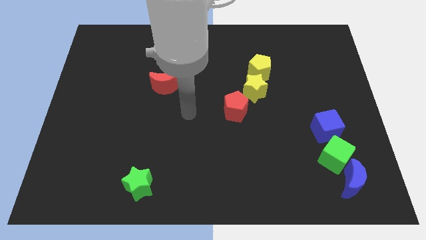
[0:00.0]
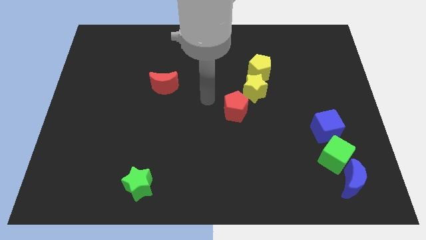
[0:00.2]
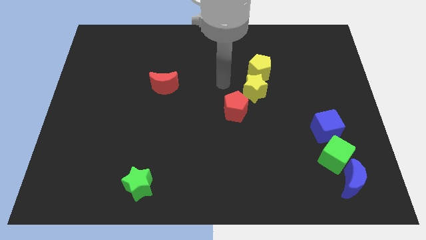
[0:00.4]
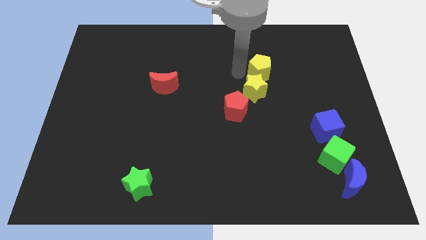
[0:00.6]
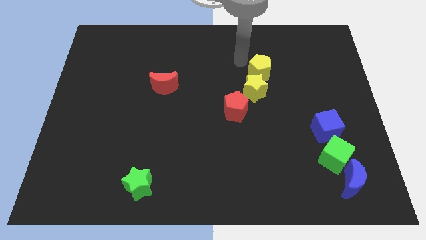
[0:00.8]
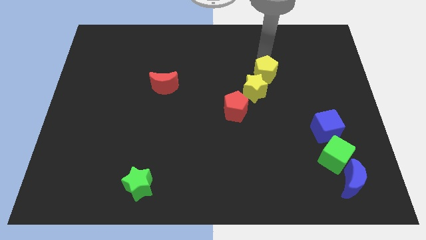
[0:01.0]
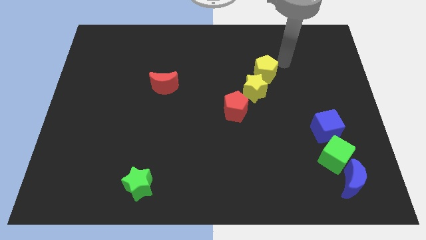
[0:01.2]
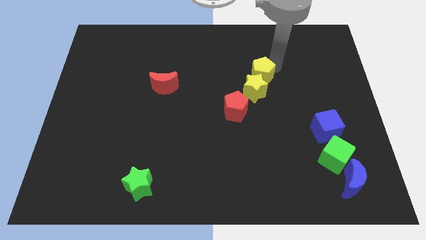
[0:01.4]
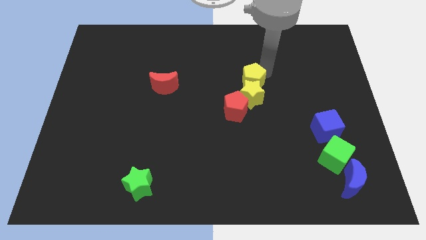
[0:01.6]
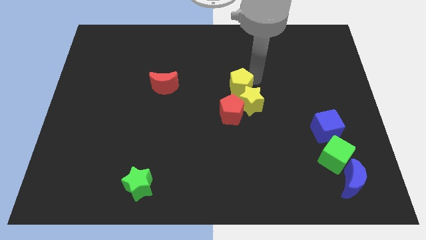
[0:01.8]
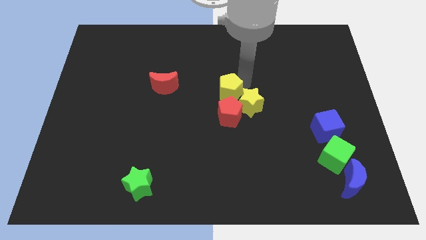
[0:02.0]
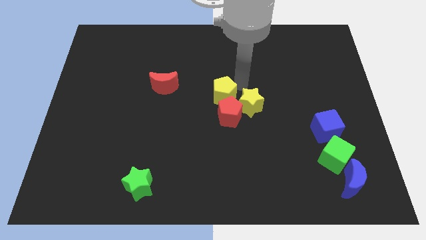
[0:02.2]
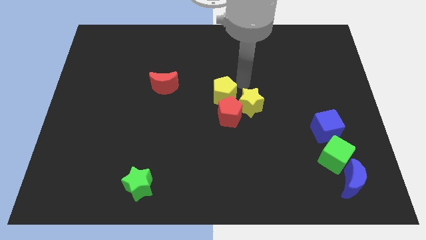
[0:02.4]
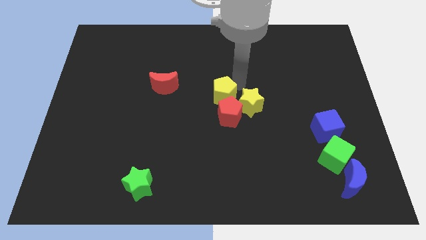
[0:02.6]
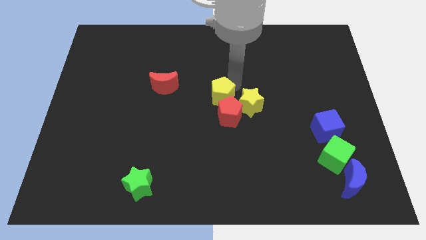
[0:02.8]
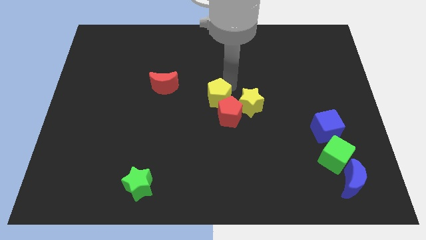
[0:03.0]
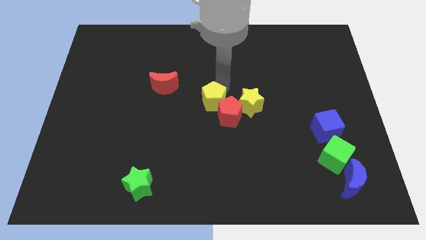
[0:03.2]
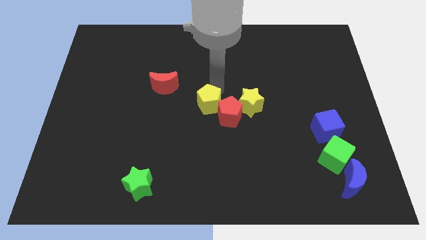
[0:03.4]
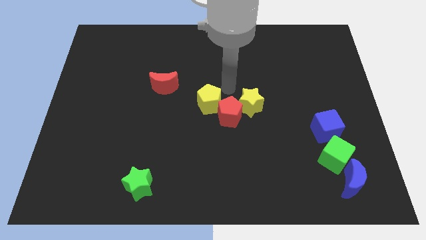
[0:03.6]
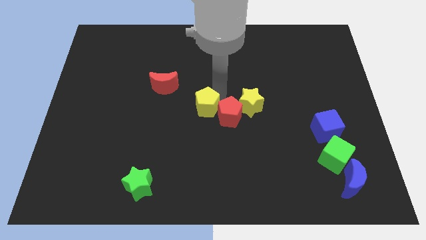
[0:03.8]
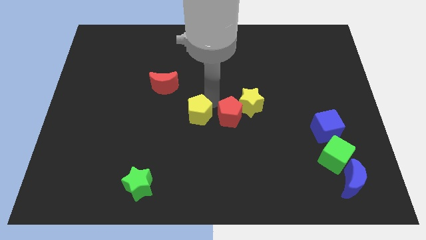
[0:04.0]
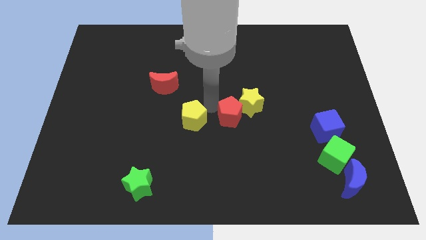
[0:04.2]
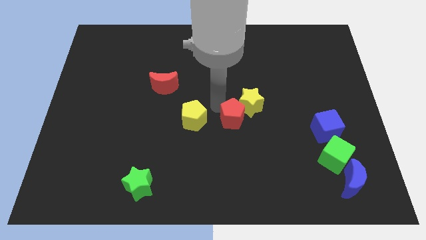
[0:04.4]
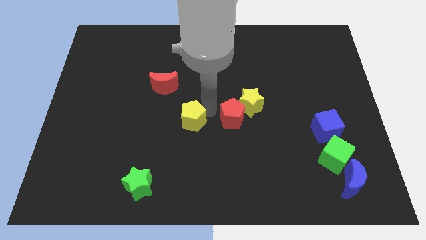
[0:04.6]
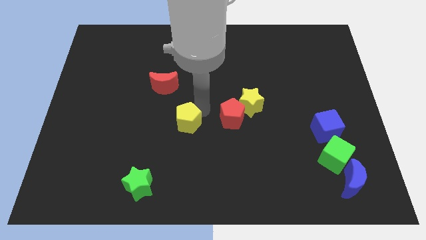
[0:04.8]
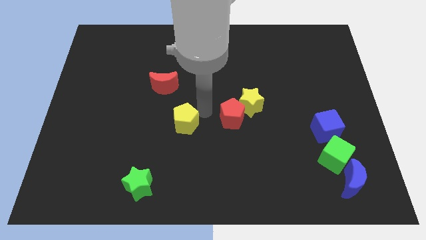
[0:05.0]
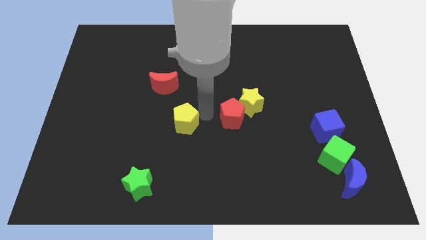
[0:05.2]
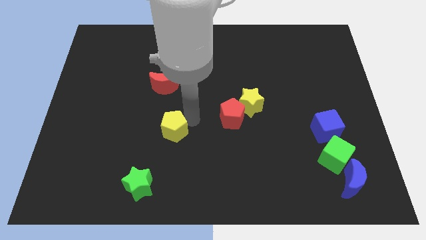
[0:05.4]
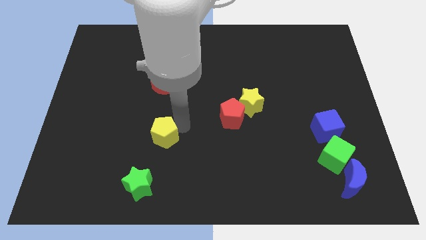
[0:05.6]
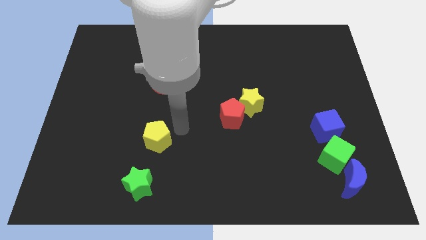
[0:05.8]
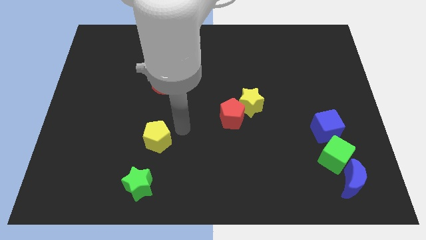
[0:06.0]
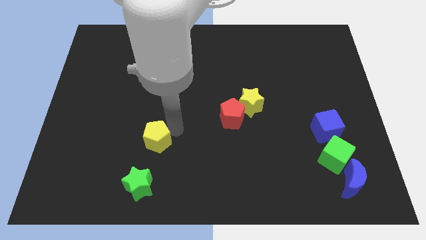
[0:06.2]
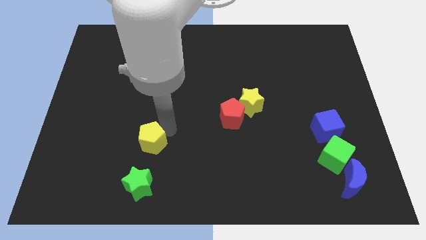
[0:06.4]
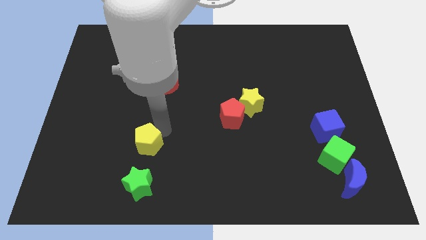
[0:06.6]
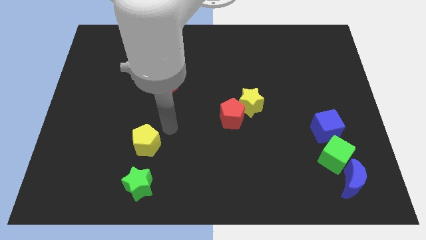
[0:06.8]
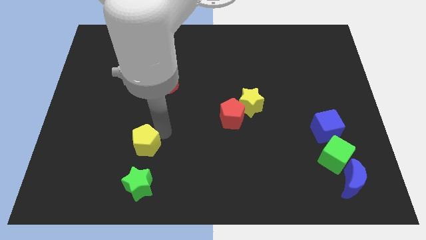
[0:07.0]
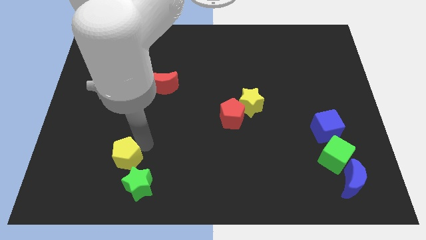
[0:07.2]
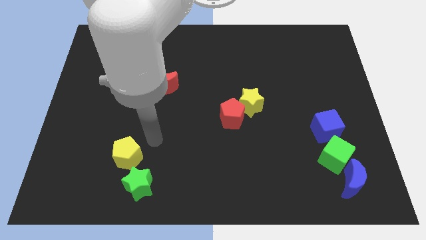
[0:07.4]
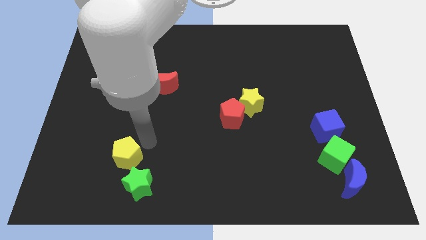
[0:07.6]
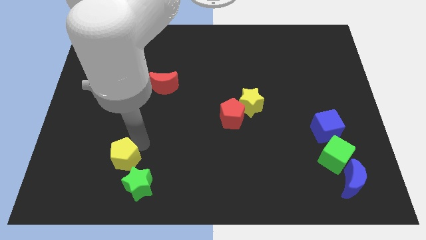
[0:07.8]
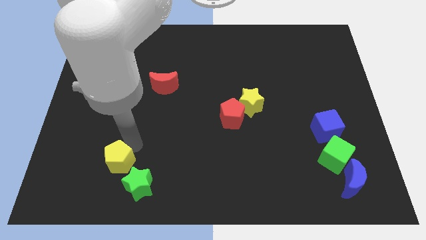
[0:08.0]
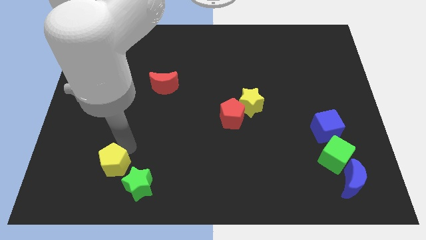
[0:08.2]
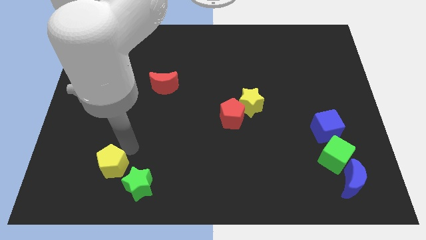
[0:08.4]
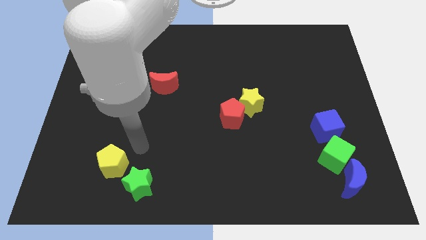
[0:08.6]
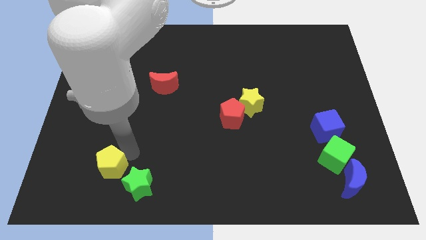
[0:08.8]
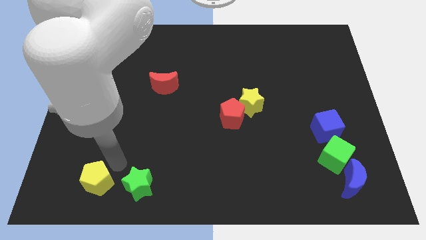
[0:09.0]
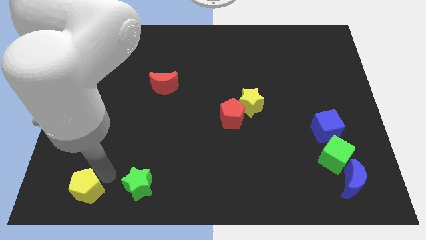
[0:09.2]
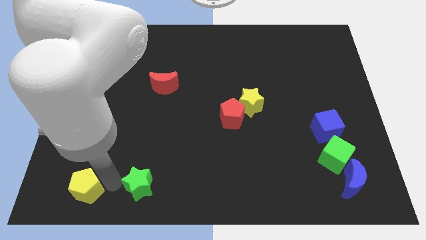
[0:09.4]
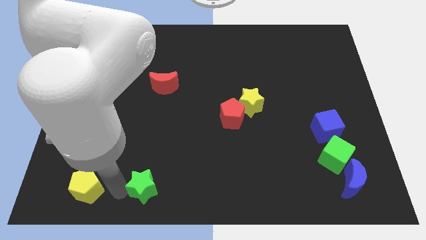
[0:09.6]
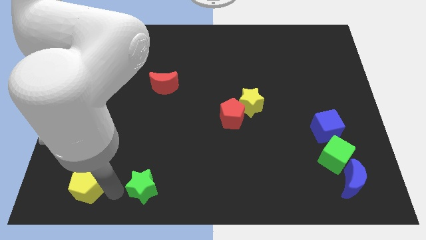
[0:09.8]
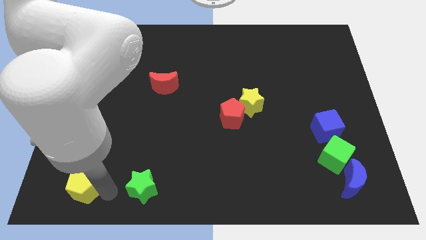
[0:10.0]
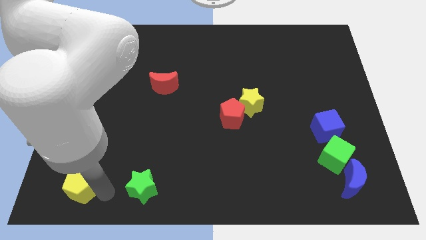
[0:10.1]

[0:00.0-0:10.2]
put the yellow pentagon to the bottom left

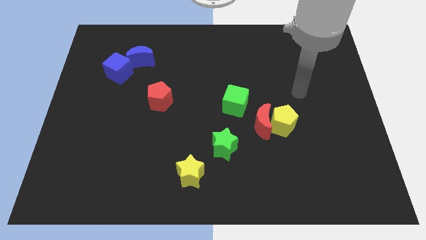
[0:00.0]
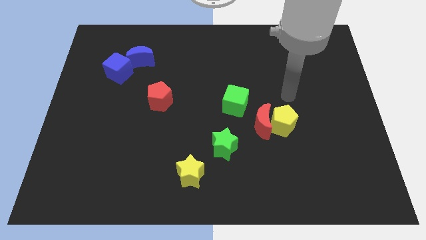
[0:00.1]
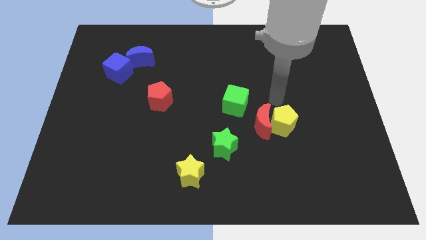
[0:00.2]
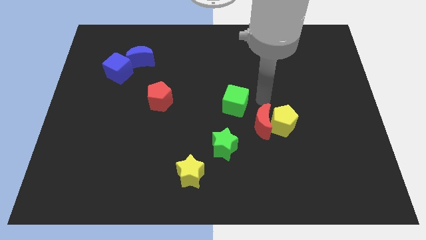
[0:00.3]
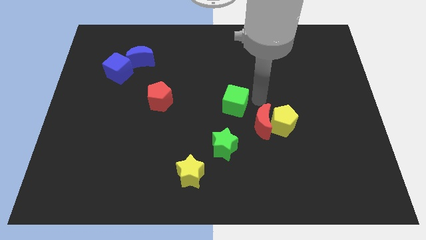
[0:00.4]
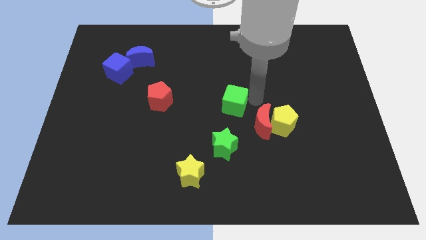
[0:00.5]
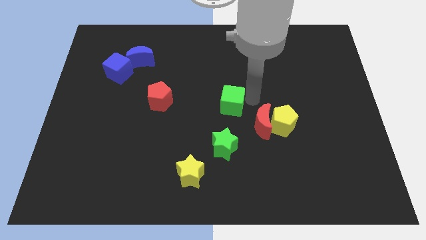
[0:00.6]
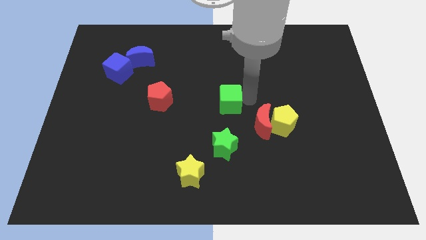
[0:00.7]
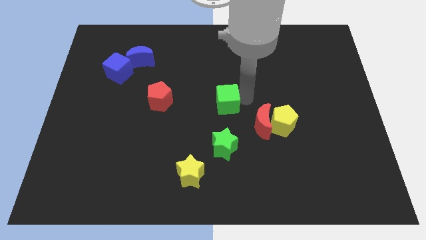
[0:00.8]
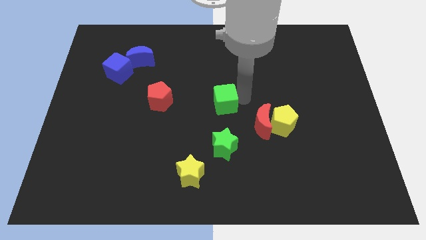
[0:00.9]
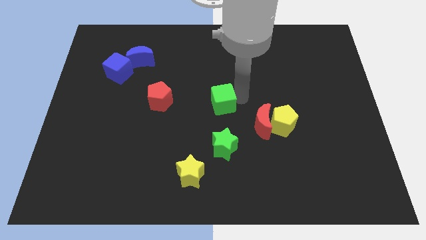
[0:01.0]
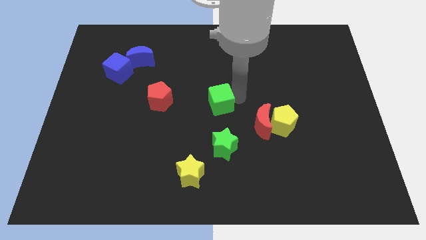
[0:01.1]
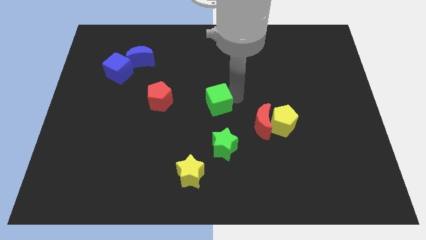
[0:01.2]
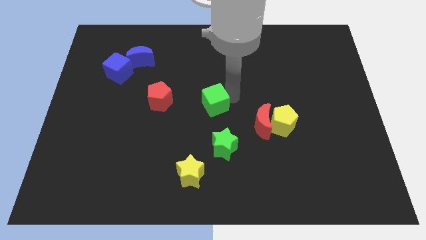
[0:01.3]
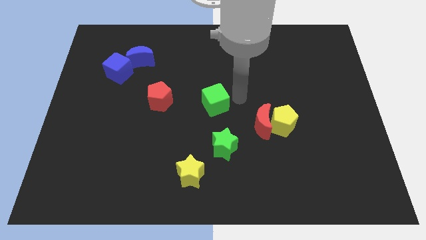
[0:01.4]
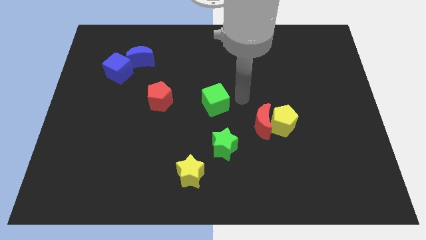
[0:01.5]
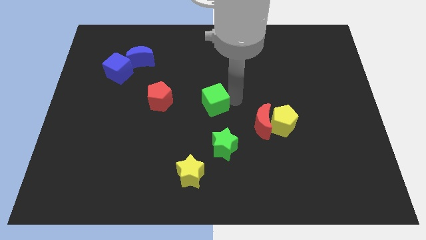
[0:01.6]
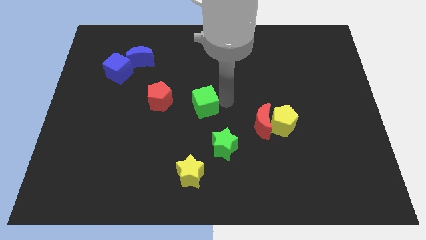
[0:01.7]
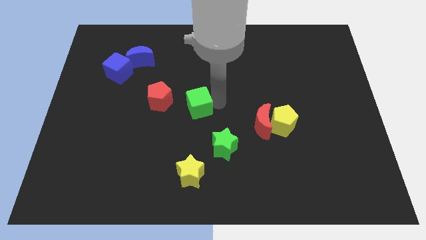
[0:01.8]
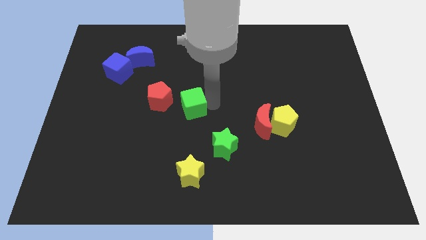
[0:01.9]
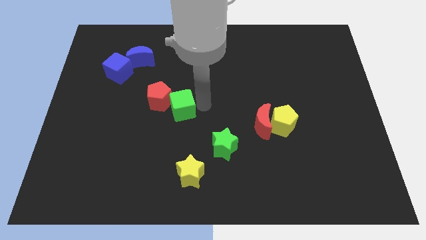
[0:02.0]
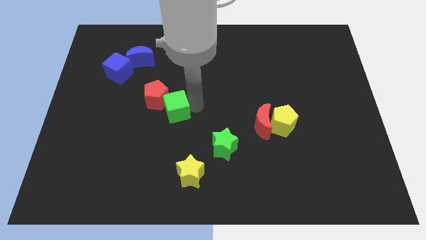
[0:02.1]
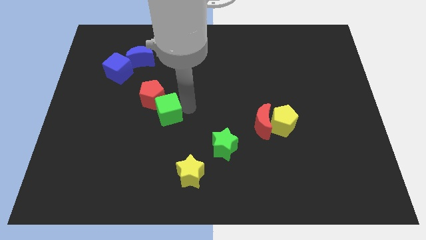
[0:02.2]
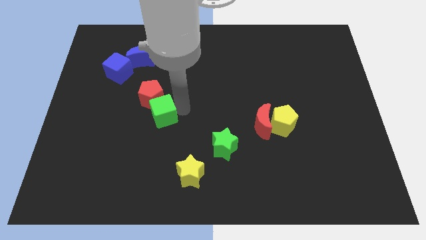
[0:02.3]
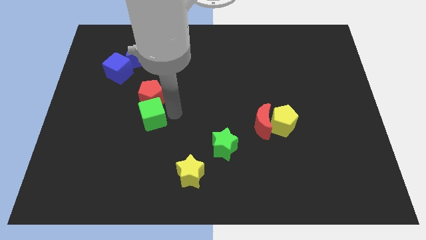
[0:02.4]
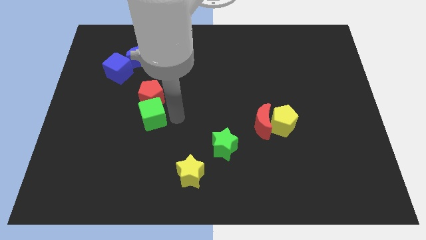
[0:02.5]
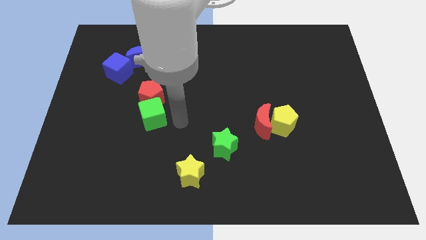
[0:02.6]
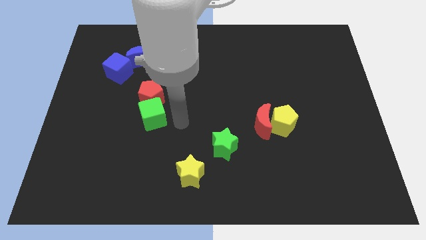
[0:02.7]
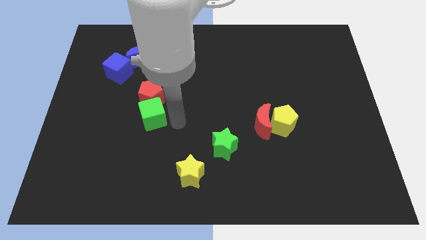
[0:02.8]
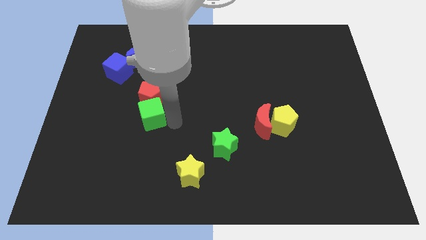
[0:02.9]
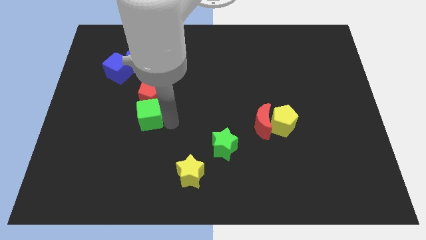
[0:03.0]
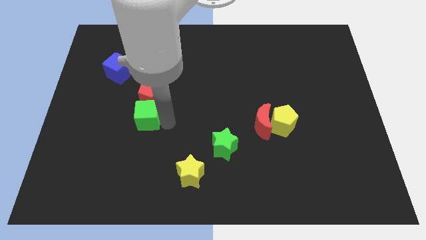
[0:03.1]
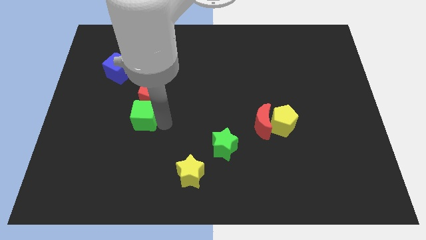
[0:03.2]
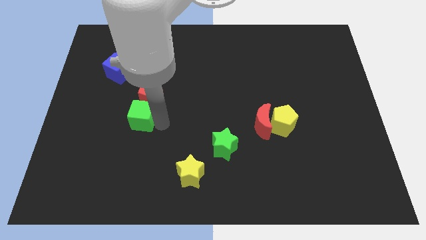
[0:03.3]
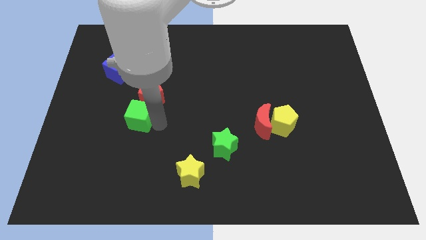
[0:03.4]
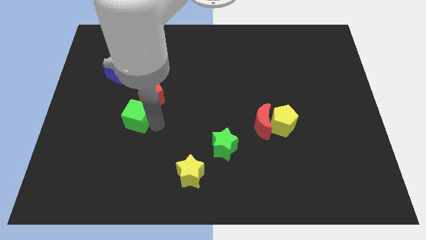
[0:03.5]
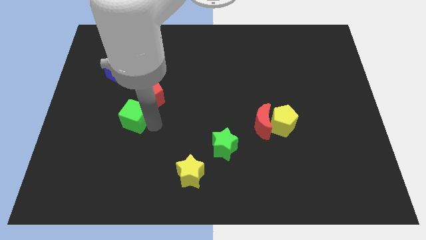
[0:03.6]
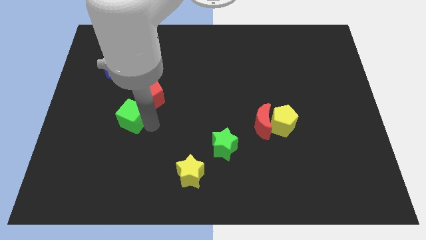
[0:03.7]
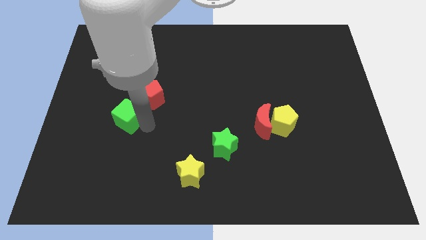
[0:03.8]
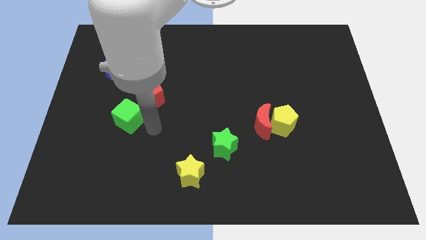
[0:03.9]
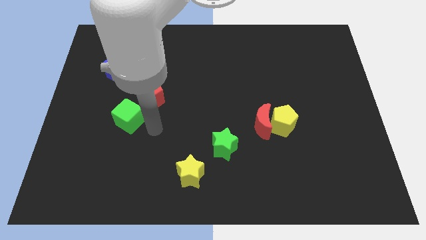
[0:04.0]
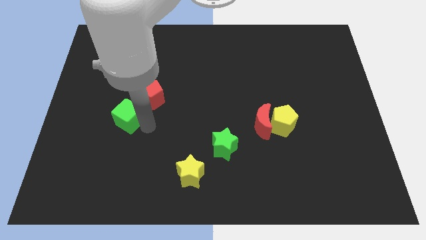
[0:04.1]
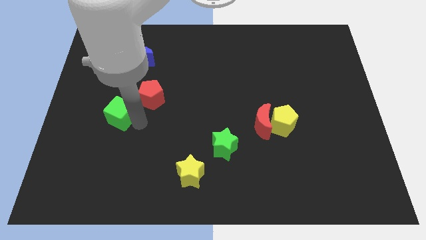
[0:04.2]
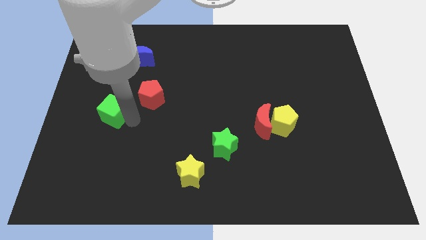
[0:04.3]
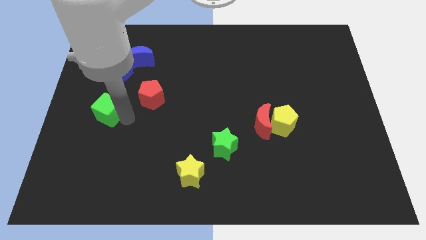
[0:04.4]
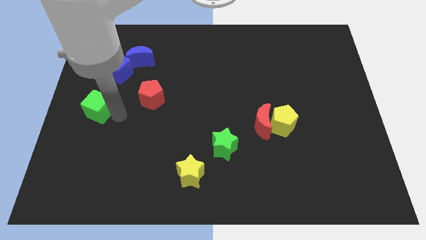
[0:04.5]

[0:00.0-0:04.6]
put the green cube to the left side
